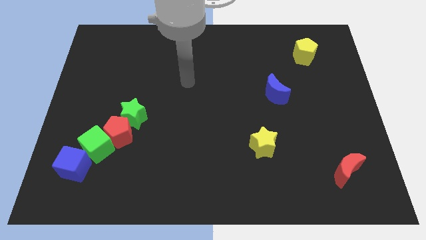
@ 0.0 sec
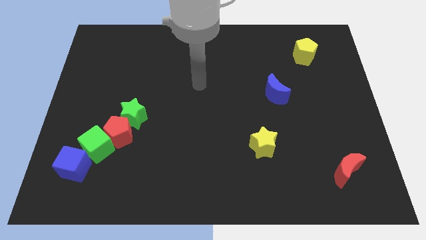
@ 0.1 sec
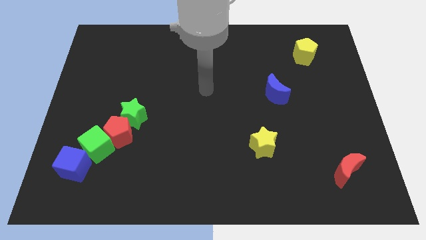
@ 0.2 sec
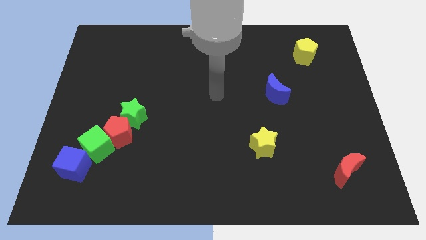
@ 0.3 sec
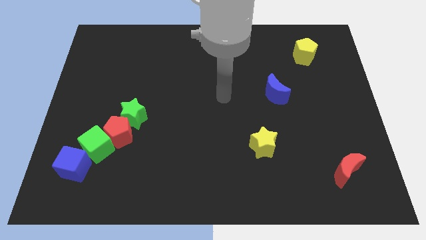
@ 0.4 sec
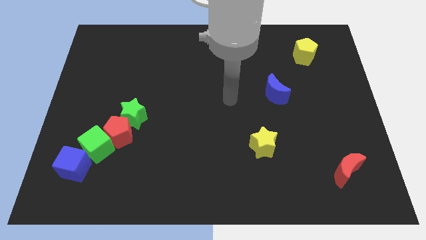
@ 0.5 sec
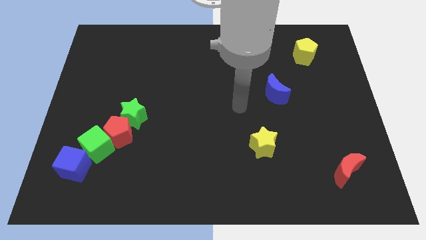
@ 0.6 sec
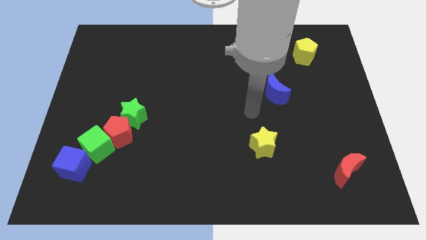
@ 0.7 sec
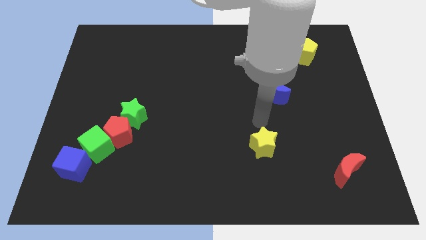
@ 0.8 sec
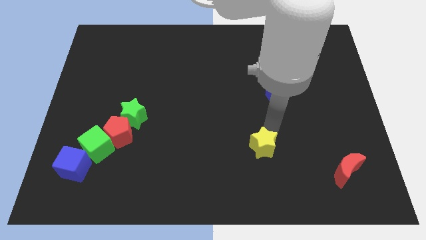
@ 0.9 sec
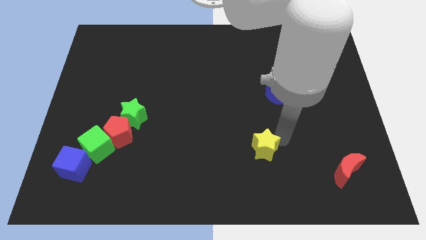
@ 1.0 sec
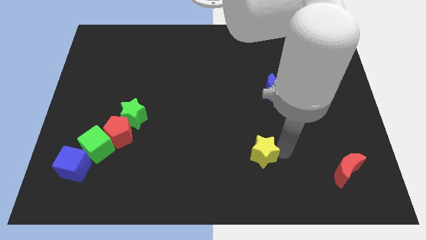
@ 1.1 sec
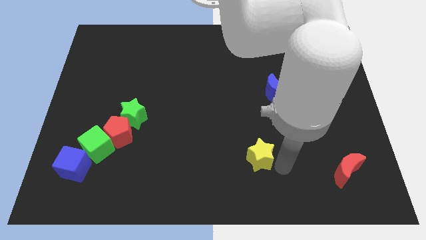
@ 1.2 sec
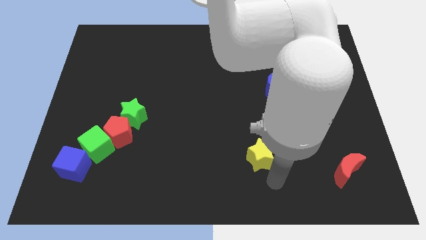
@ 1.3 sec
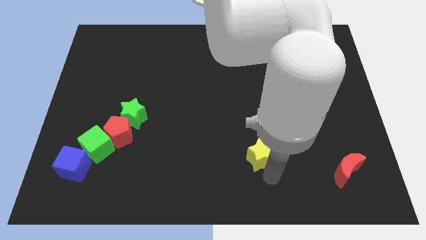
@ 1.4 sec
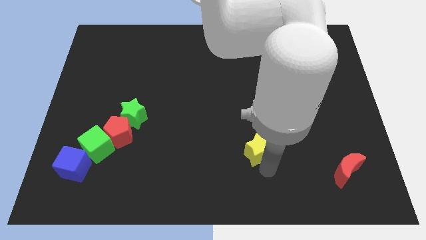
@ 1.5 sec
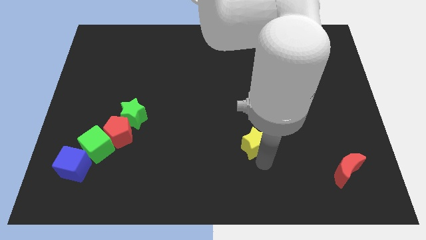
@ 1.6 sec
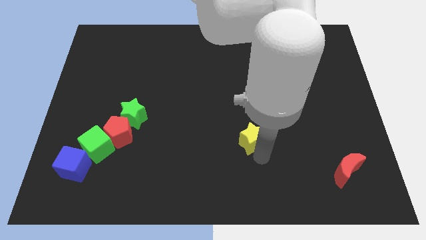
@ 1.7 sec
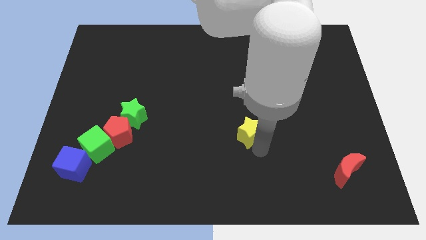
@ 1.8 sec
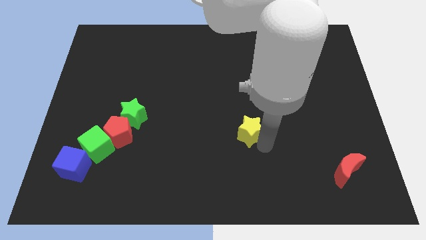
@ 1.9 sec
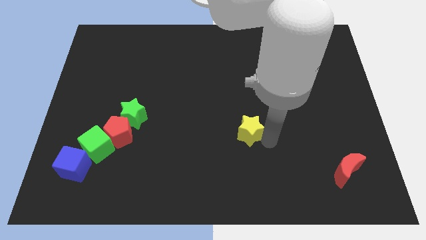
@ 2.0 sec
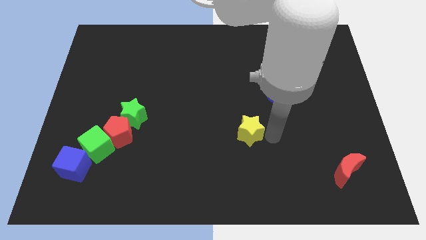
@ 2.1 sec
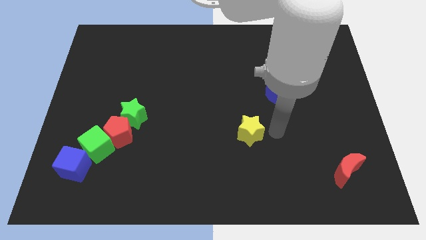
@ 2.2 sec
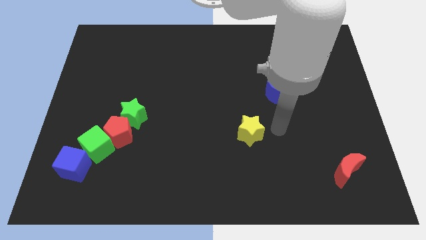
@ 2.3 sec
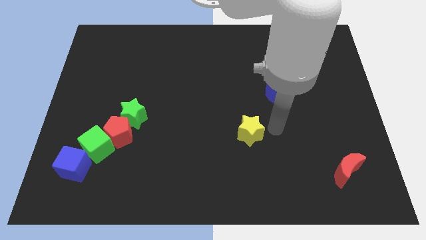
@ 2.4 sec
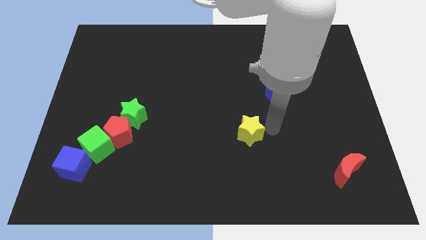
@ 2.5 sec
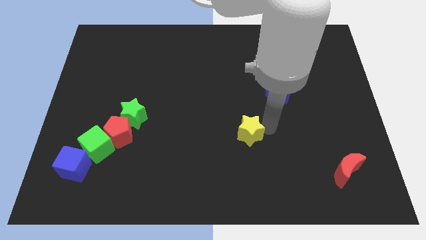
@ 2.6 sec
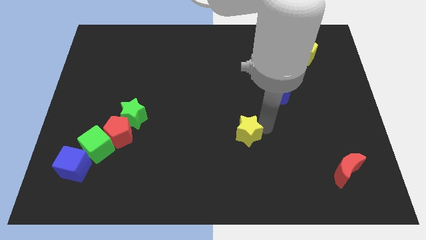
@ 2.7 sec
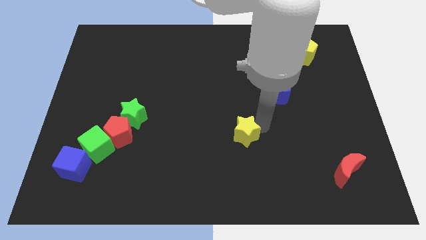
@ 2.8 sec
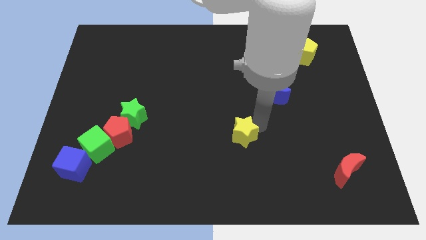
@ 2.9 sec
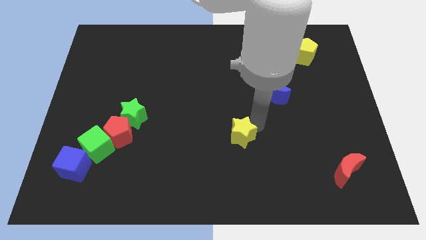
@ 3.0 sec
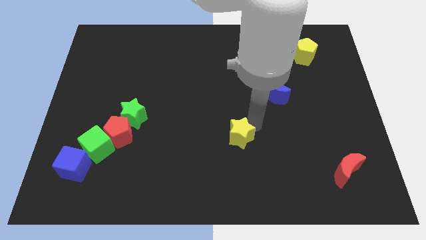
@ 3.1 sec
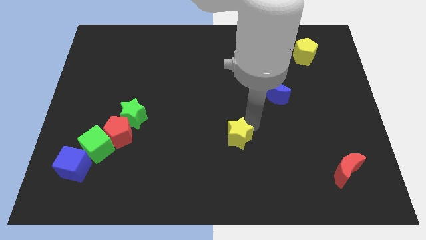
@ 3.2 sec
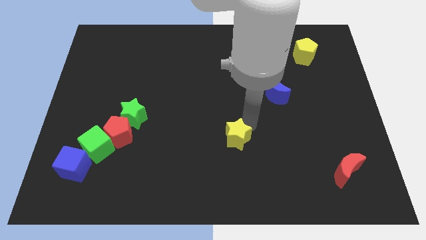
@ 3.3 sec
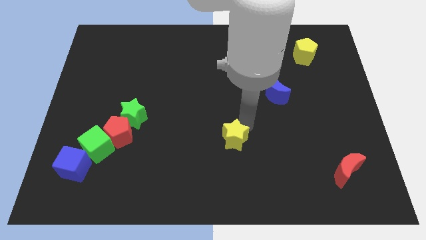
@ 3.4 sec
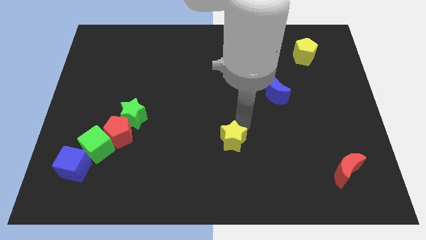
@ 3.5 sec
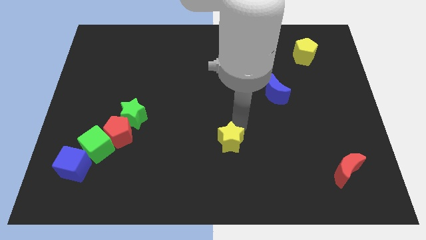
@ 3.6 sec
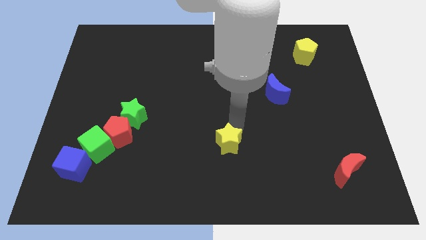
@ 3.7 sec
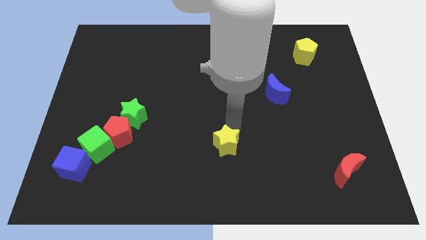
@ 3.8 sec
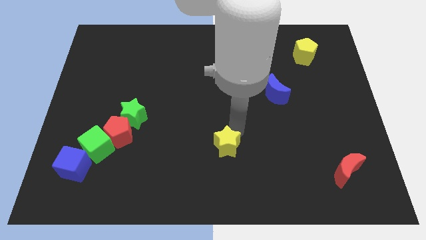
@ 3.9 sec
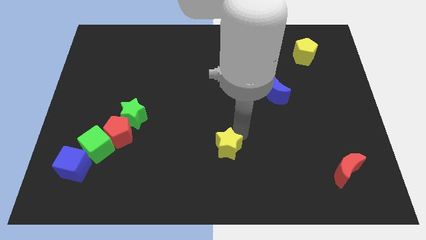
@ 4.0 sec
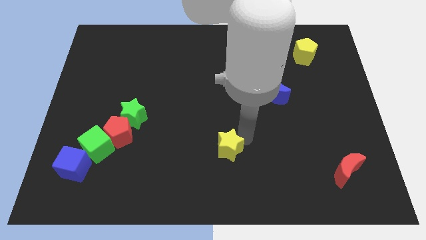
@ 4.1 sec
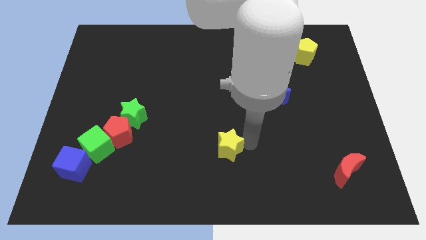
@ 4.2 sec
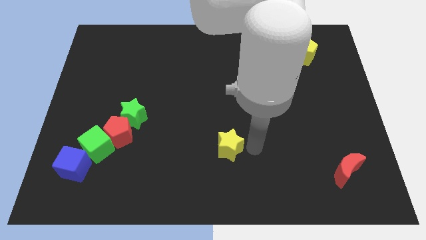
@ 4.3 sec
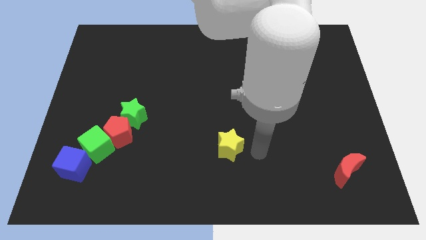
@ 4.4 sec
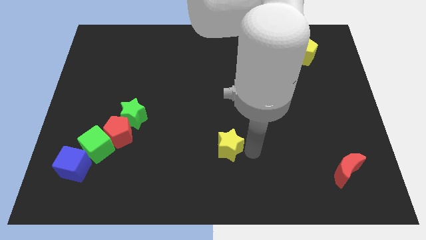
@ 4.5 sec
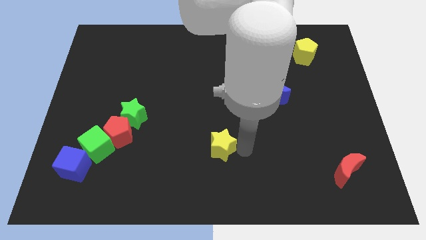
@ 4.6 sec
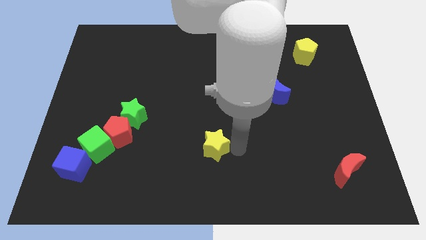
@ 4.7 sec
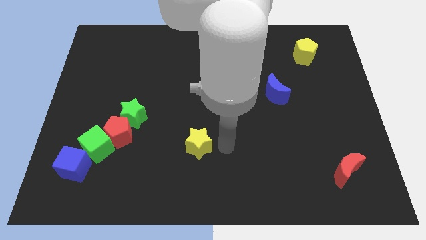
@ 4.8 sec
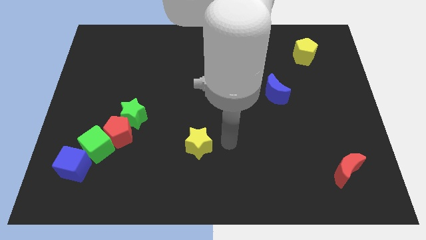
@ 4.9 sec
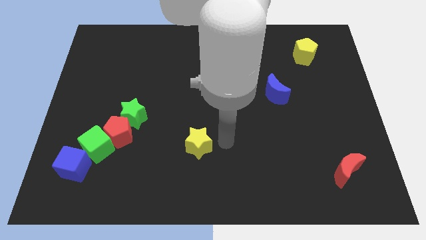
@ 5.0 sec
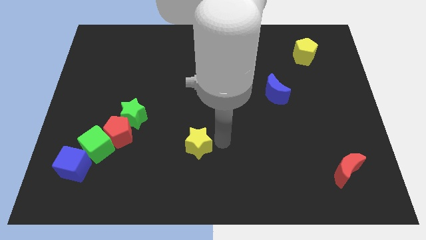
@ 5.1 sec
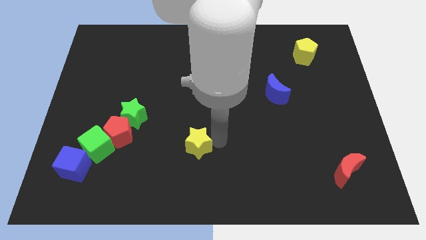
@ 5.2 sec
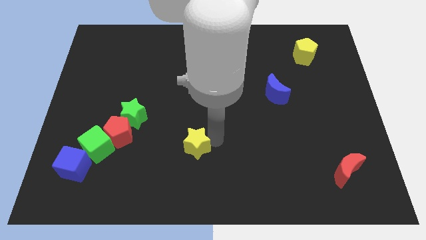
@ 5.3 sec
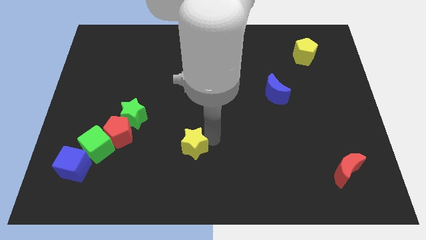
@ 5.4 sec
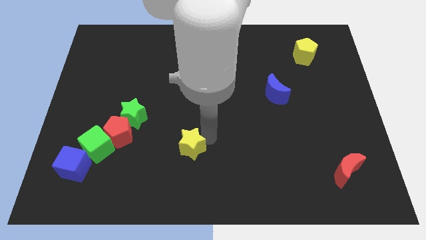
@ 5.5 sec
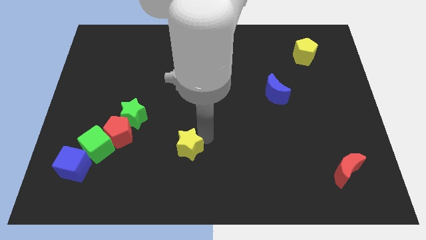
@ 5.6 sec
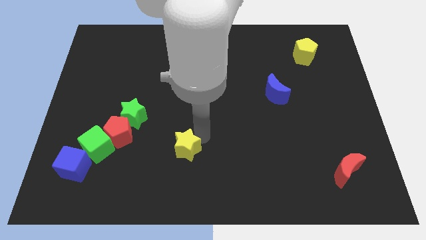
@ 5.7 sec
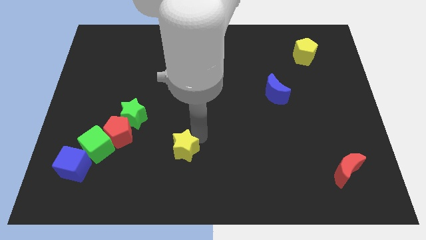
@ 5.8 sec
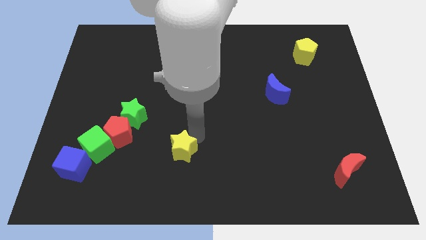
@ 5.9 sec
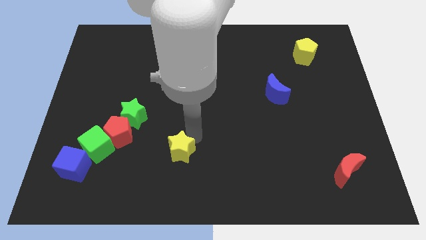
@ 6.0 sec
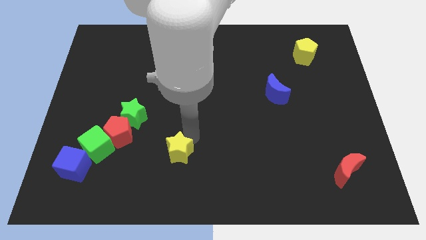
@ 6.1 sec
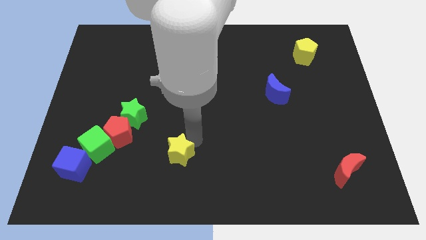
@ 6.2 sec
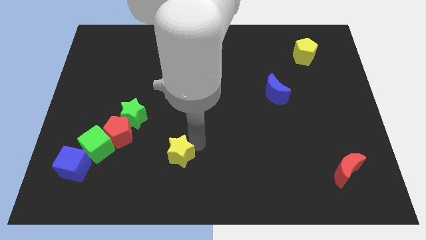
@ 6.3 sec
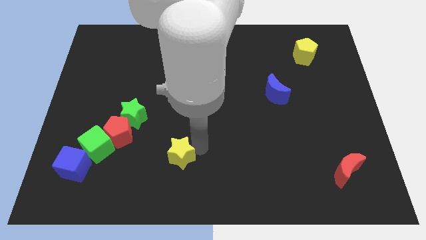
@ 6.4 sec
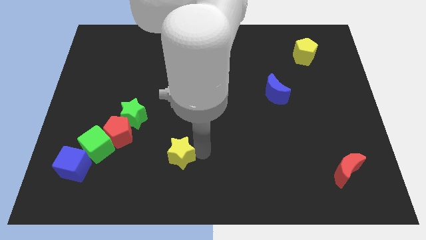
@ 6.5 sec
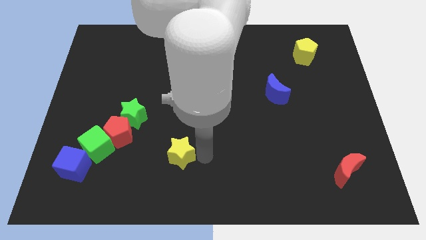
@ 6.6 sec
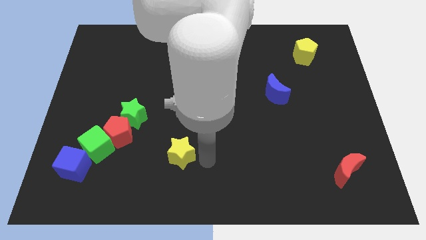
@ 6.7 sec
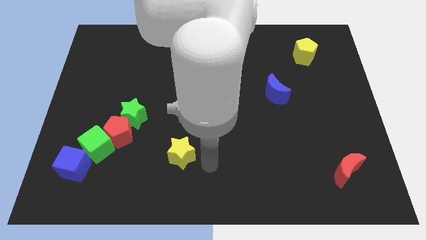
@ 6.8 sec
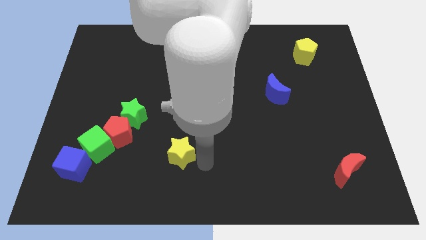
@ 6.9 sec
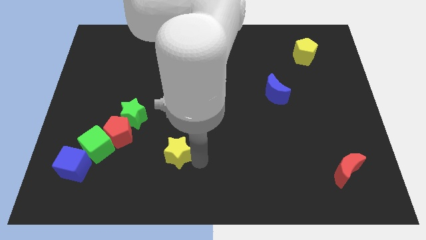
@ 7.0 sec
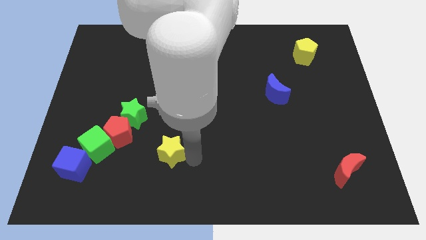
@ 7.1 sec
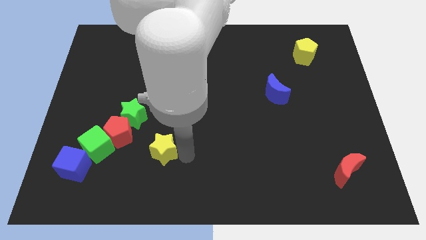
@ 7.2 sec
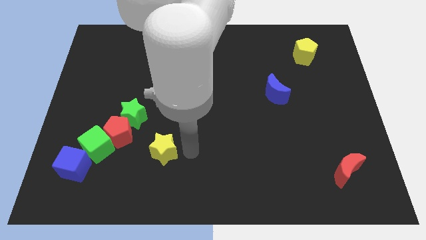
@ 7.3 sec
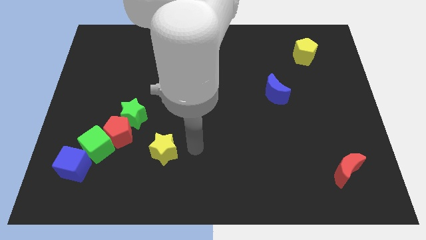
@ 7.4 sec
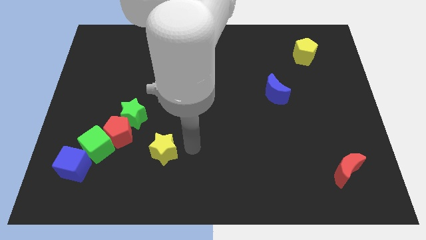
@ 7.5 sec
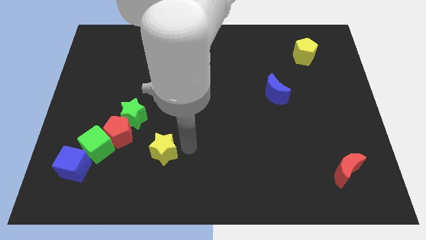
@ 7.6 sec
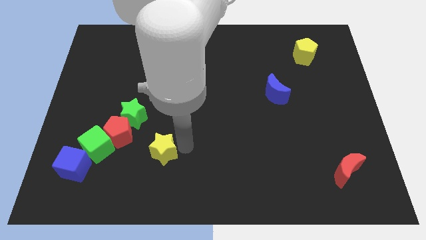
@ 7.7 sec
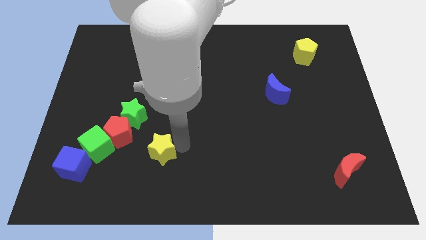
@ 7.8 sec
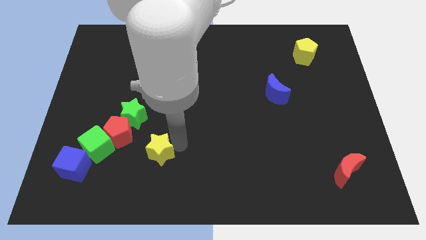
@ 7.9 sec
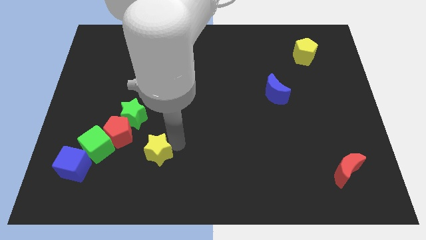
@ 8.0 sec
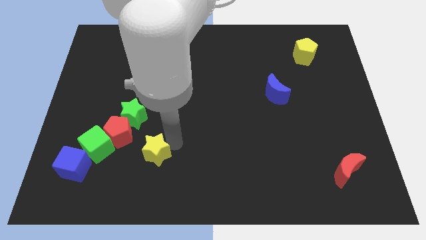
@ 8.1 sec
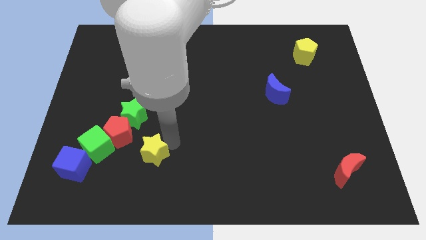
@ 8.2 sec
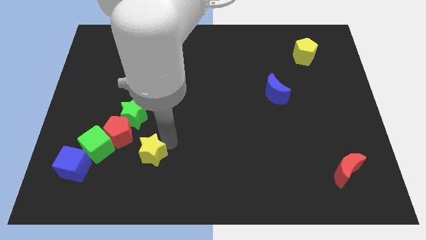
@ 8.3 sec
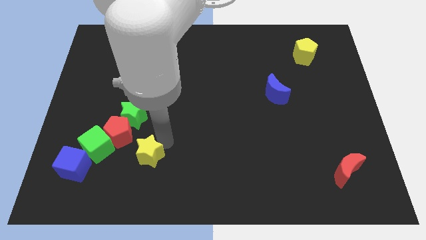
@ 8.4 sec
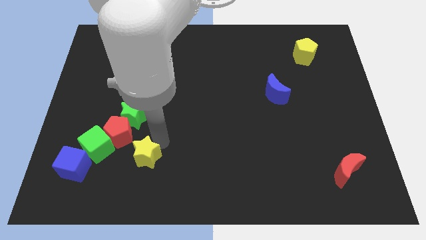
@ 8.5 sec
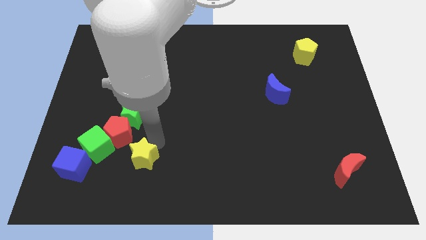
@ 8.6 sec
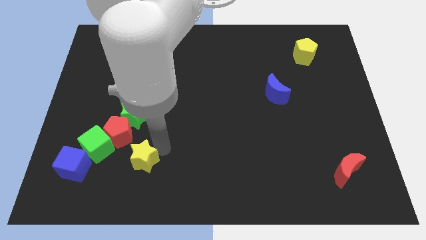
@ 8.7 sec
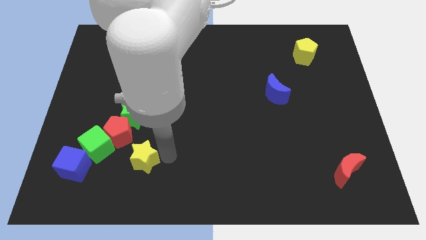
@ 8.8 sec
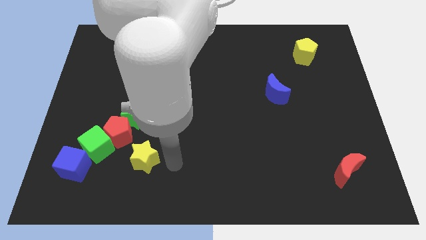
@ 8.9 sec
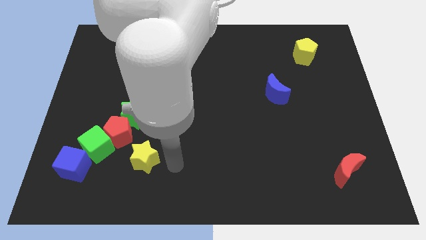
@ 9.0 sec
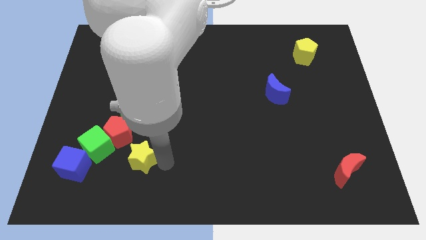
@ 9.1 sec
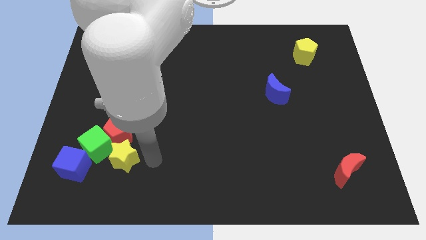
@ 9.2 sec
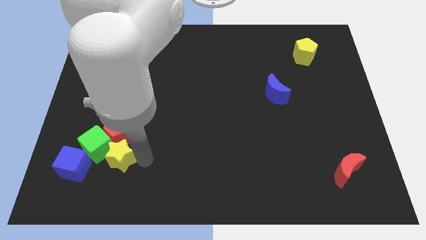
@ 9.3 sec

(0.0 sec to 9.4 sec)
put the yellow star towards the green cube
